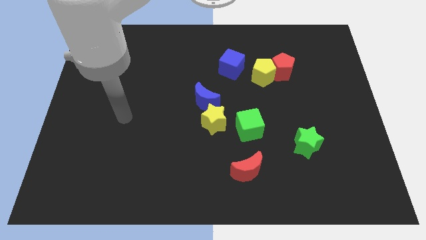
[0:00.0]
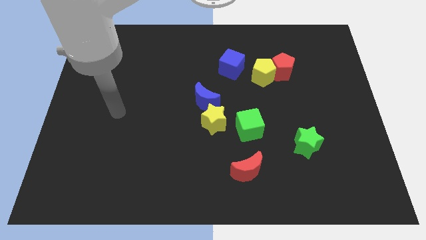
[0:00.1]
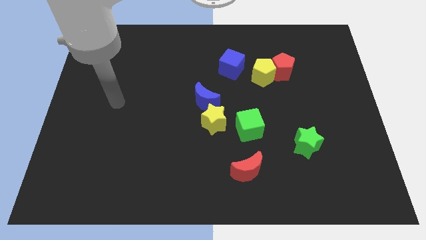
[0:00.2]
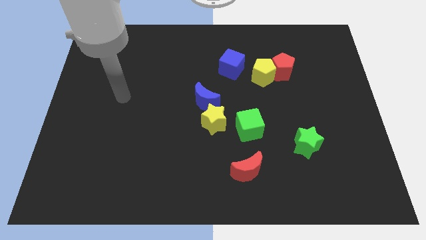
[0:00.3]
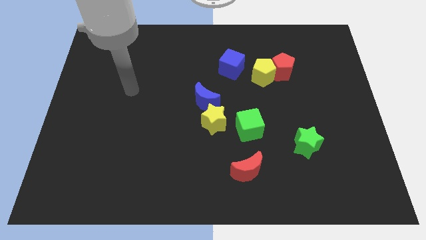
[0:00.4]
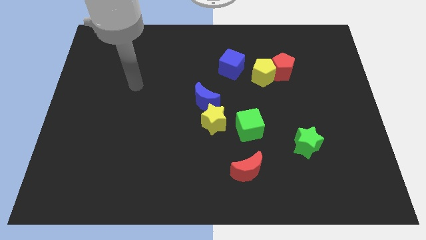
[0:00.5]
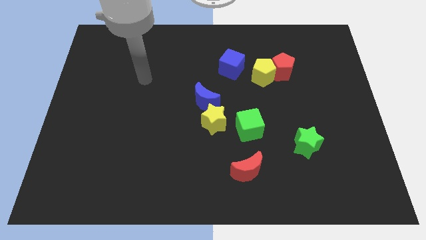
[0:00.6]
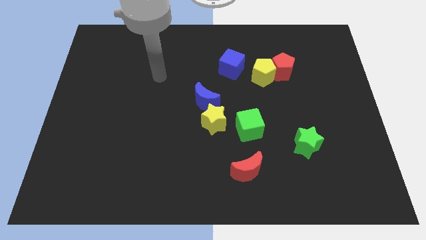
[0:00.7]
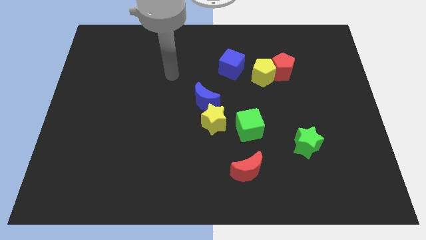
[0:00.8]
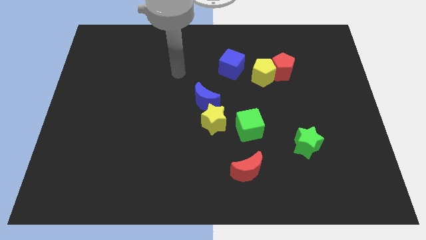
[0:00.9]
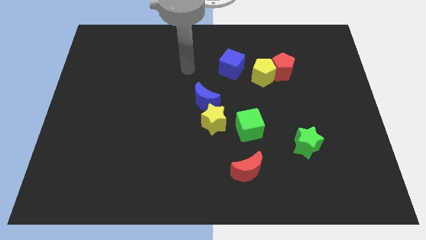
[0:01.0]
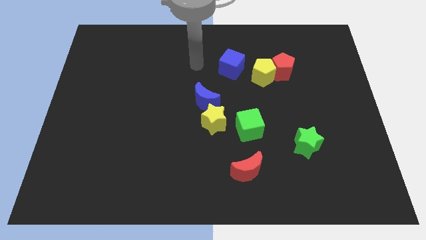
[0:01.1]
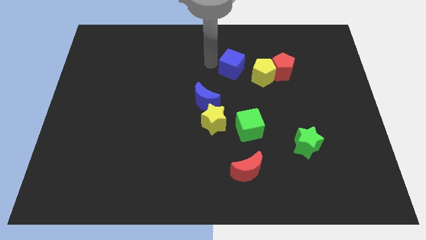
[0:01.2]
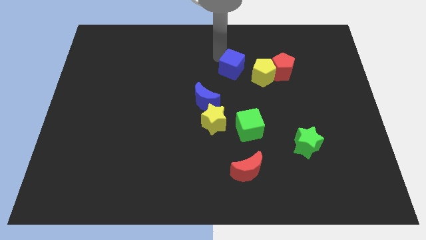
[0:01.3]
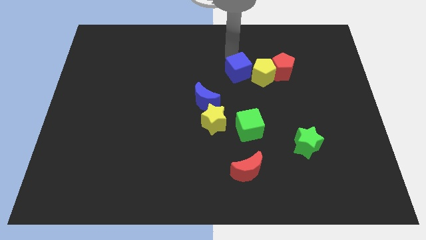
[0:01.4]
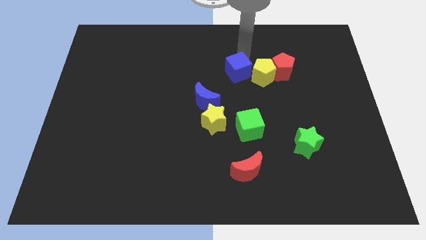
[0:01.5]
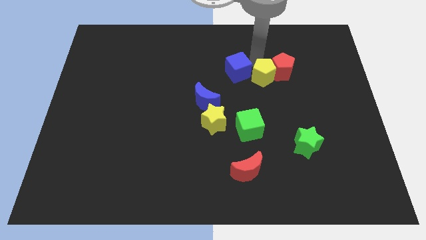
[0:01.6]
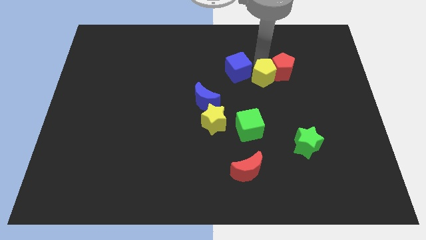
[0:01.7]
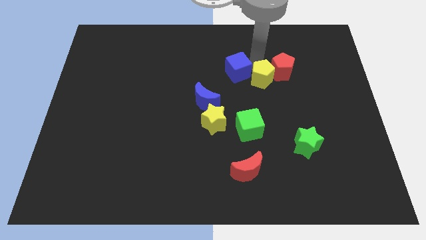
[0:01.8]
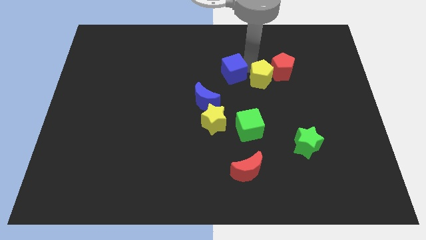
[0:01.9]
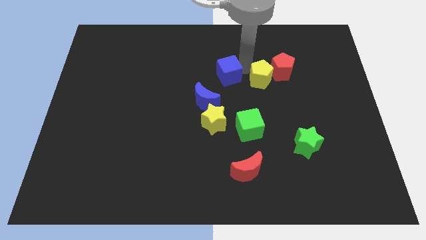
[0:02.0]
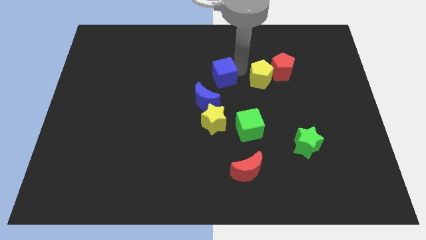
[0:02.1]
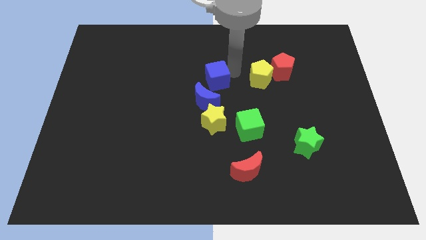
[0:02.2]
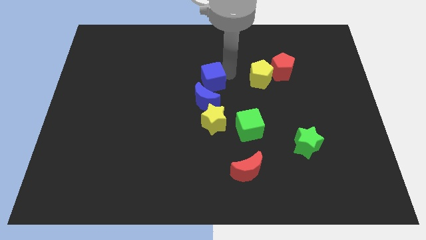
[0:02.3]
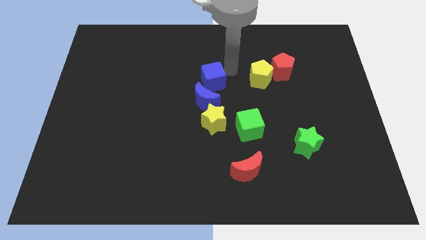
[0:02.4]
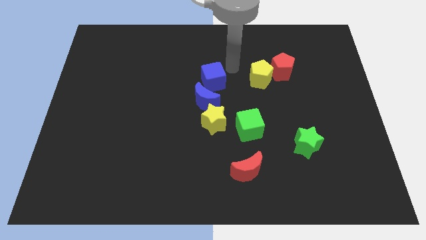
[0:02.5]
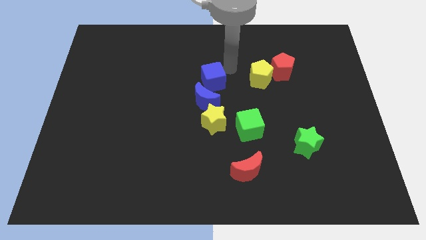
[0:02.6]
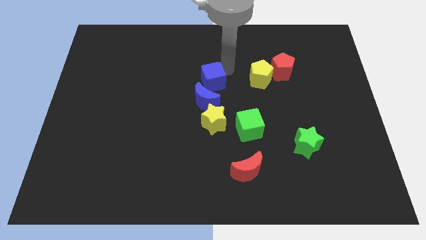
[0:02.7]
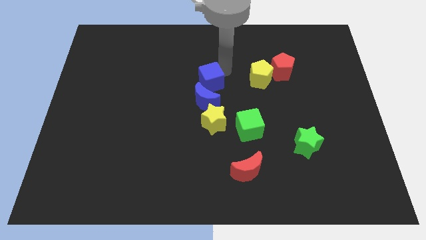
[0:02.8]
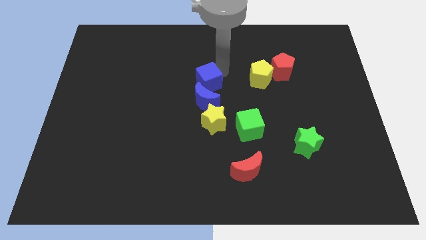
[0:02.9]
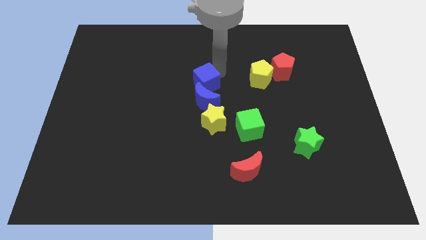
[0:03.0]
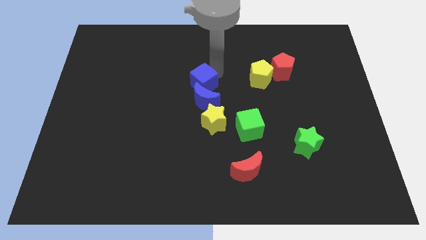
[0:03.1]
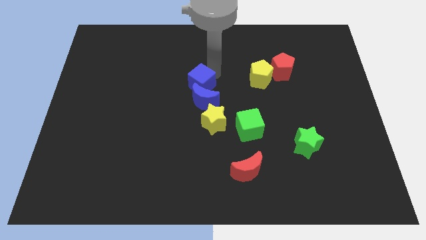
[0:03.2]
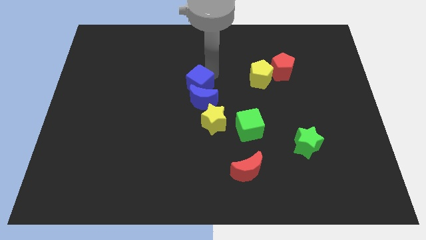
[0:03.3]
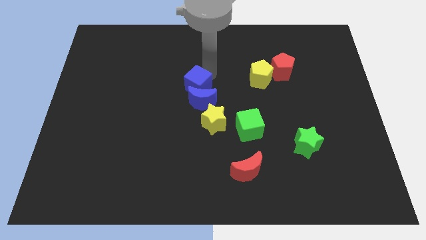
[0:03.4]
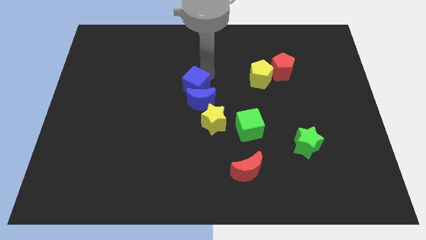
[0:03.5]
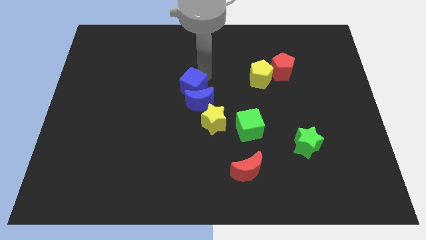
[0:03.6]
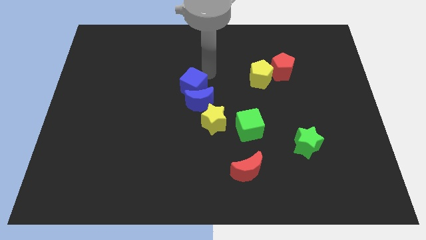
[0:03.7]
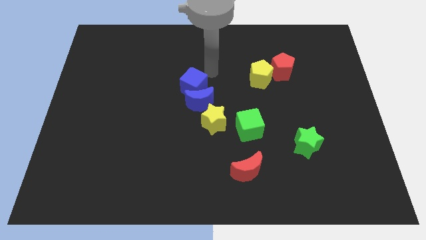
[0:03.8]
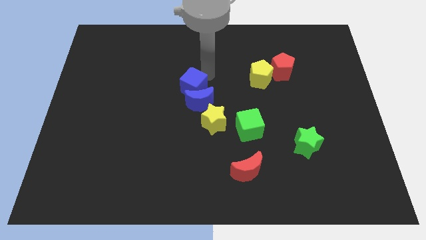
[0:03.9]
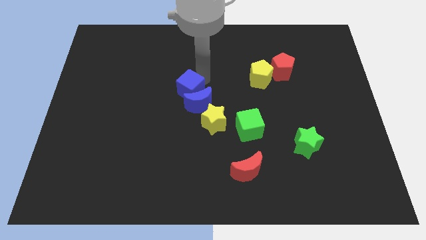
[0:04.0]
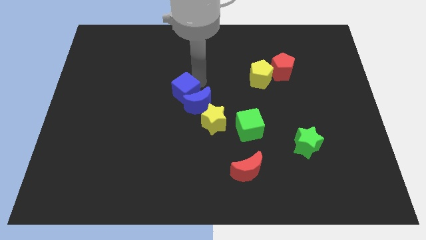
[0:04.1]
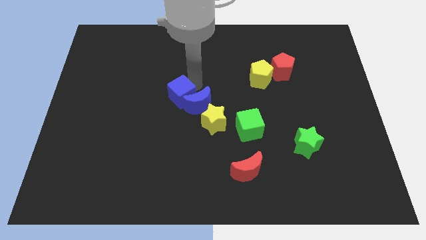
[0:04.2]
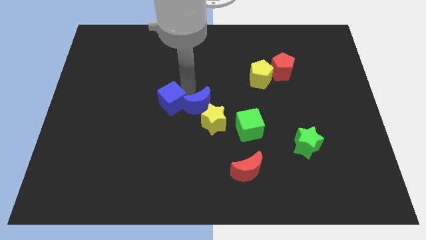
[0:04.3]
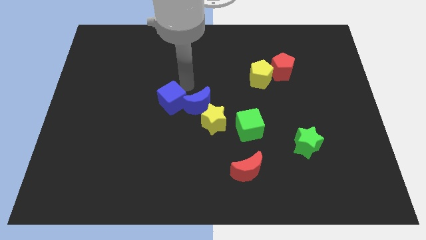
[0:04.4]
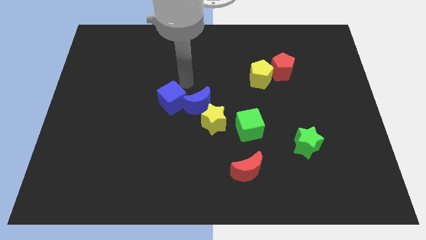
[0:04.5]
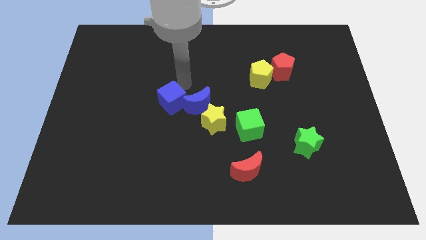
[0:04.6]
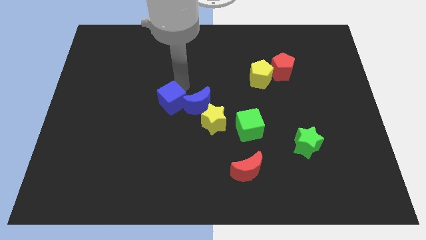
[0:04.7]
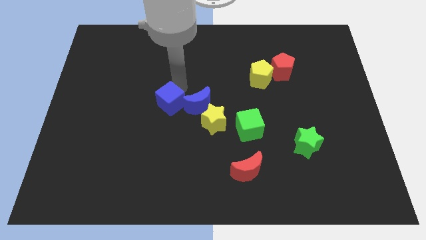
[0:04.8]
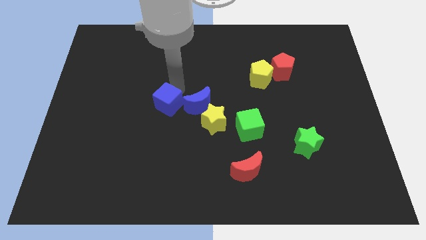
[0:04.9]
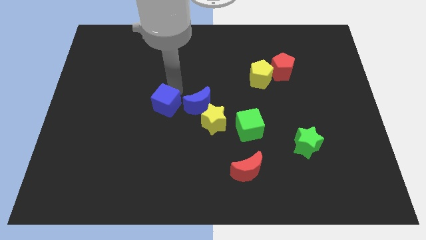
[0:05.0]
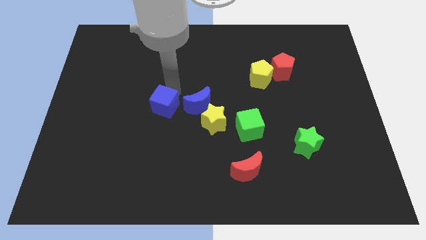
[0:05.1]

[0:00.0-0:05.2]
slide the blue cube down and to the left diagonally

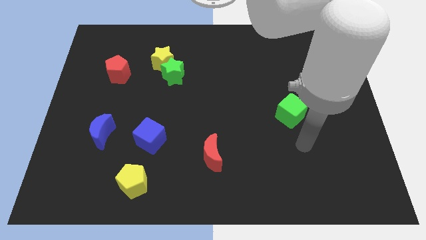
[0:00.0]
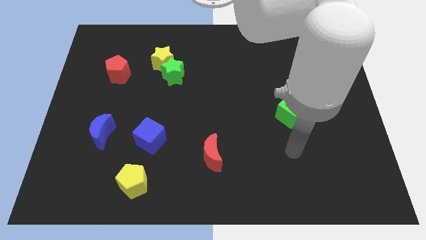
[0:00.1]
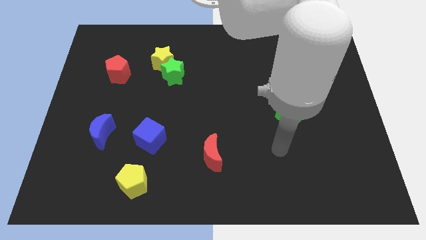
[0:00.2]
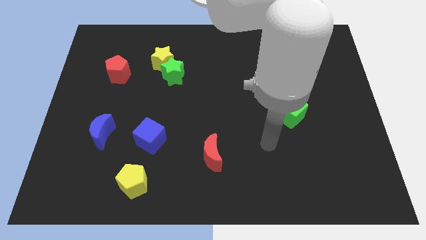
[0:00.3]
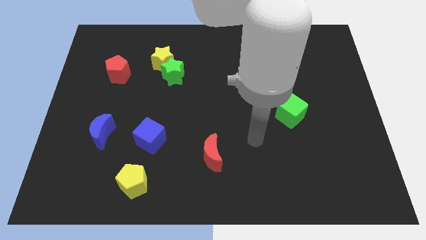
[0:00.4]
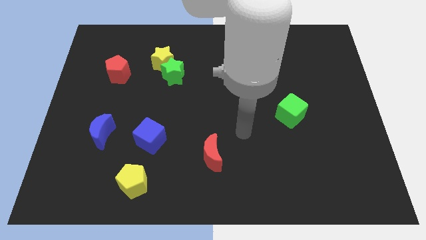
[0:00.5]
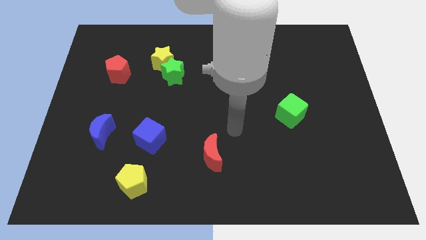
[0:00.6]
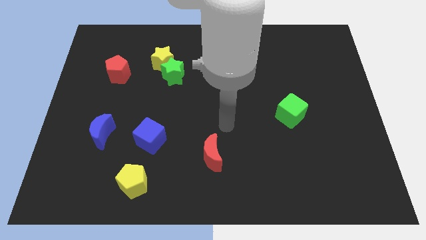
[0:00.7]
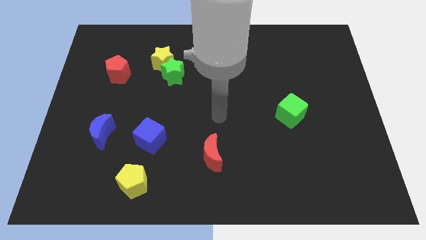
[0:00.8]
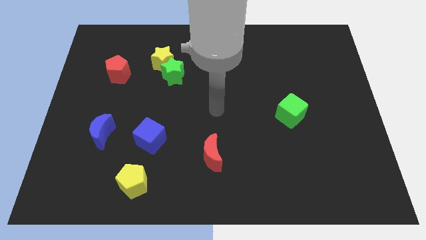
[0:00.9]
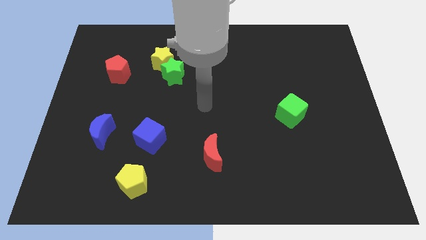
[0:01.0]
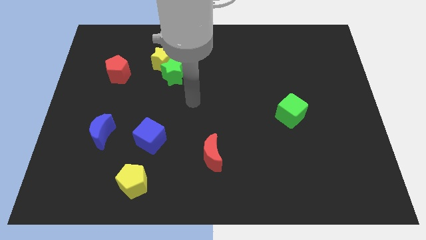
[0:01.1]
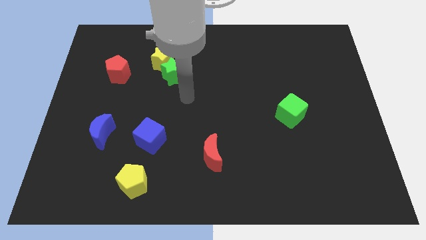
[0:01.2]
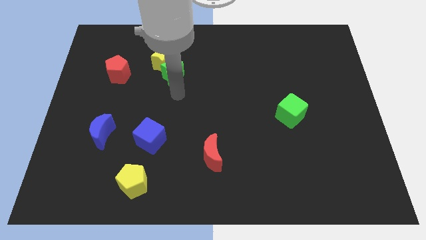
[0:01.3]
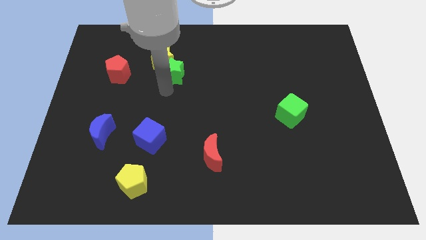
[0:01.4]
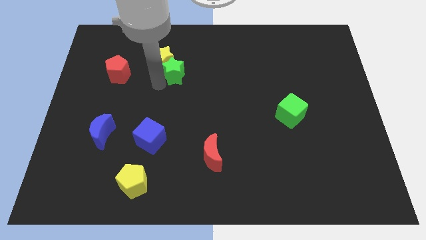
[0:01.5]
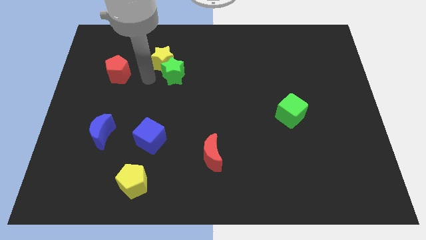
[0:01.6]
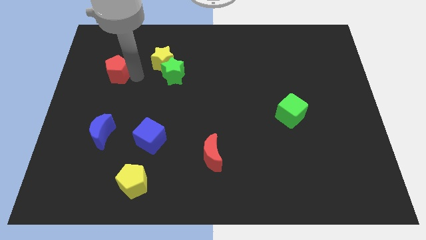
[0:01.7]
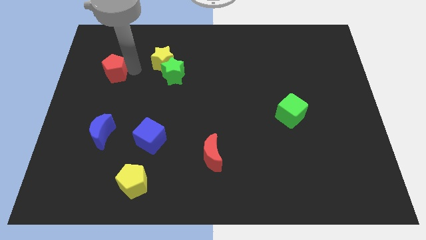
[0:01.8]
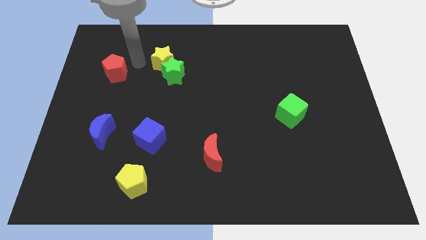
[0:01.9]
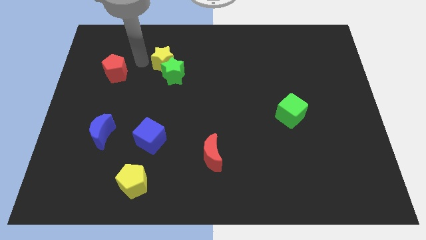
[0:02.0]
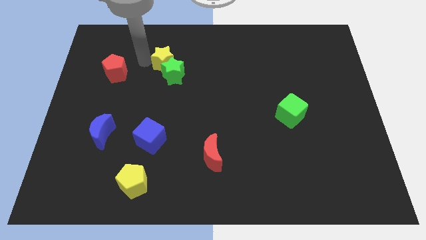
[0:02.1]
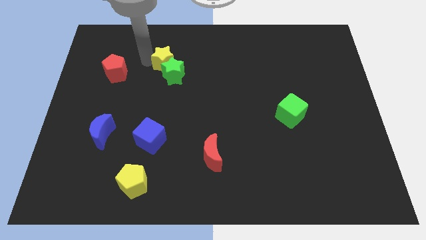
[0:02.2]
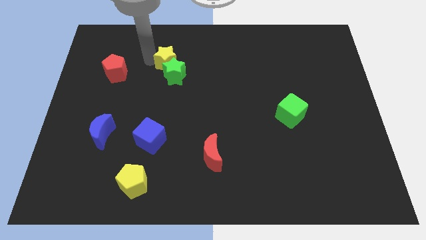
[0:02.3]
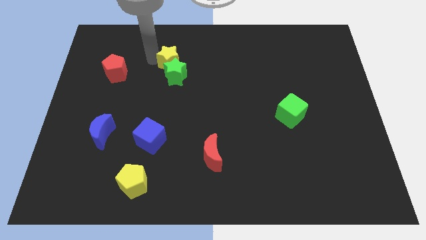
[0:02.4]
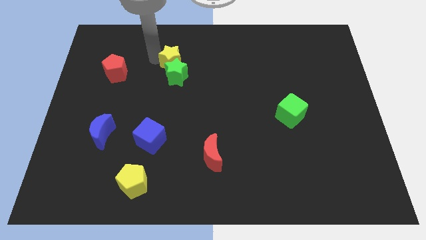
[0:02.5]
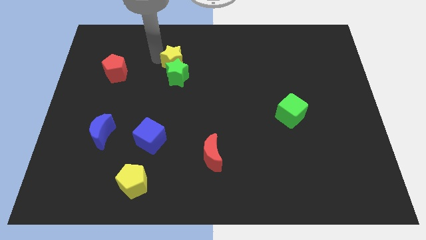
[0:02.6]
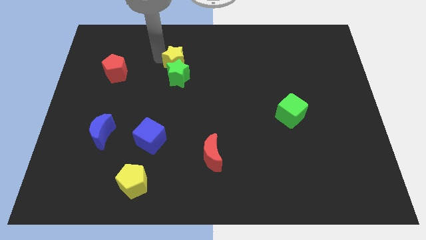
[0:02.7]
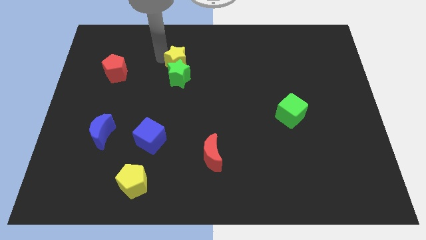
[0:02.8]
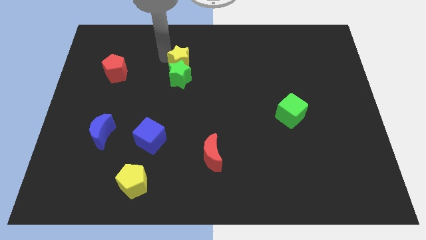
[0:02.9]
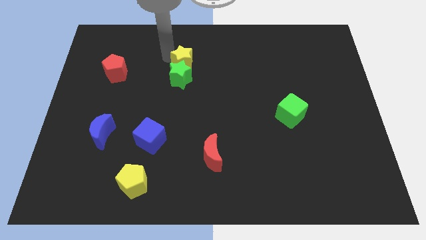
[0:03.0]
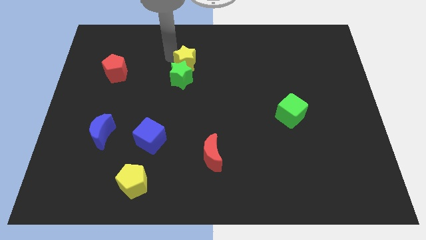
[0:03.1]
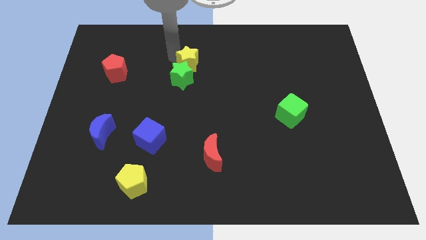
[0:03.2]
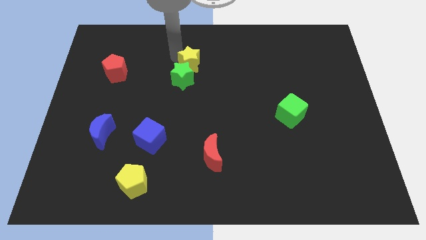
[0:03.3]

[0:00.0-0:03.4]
move the yellow star right a little
